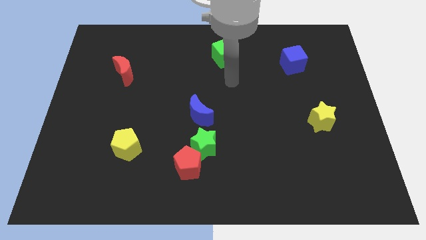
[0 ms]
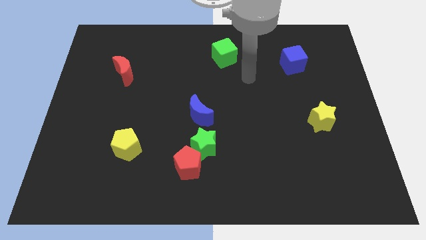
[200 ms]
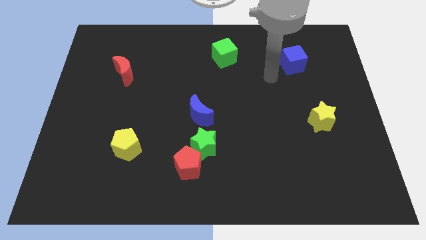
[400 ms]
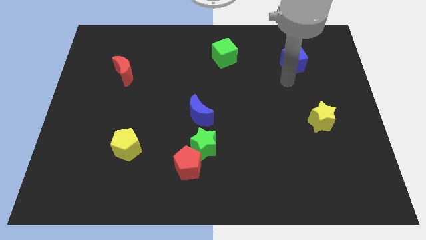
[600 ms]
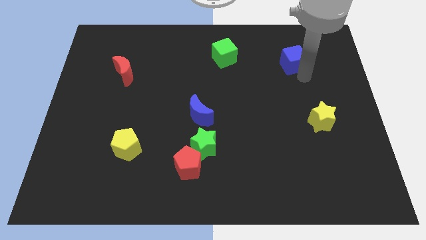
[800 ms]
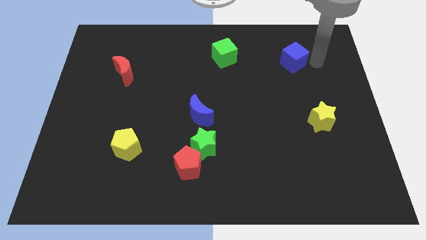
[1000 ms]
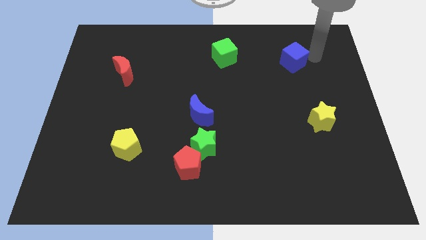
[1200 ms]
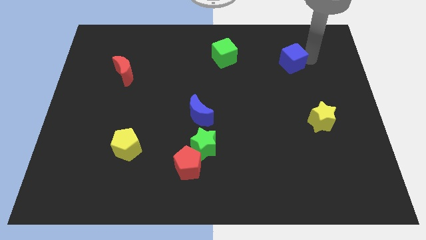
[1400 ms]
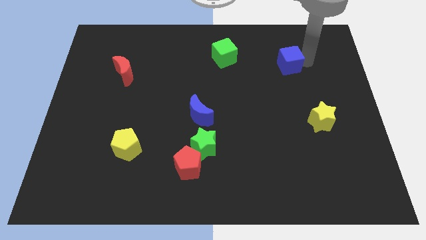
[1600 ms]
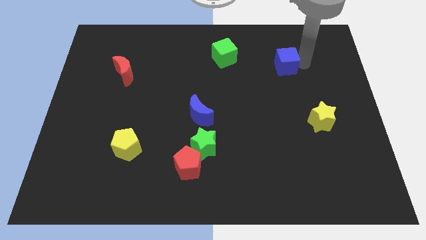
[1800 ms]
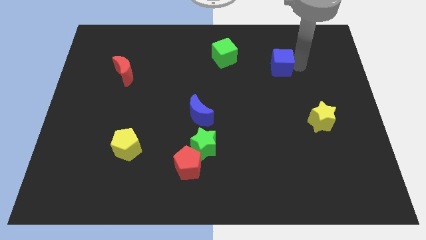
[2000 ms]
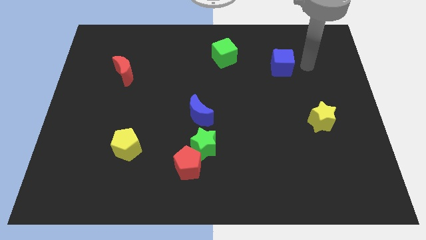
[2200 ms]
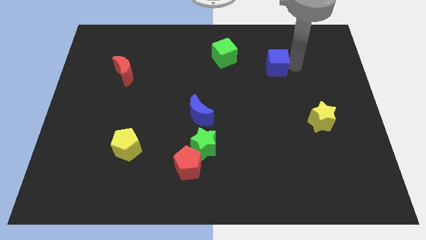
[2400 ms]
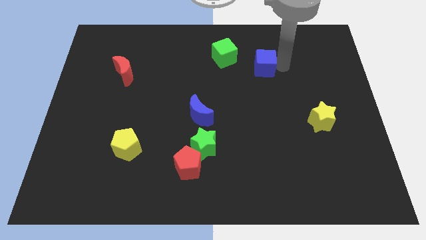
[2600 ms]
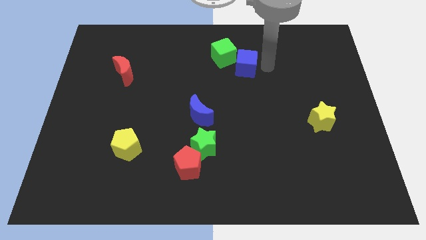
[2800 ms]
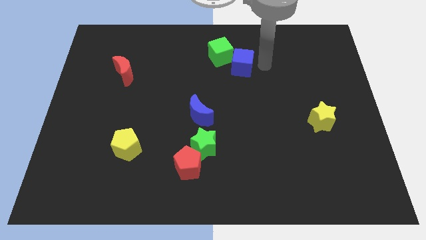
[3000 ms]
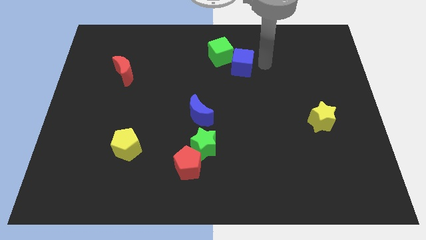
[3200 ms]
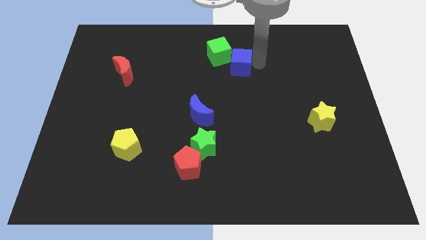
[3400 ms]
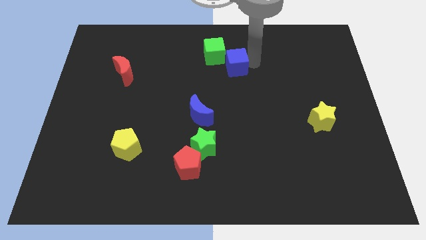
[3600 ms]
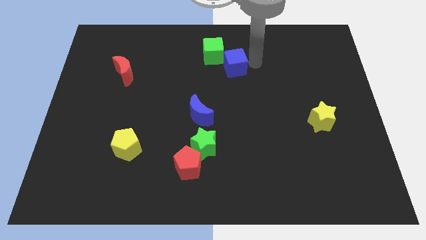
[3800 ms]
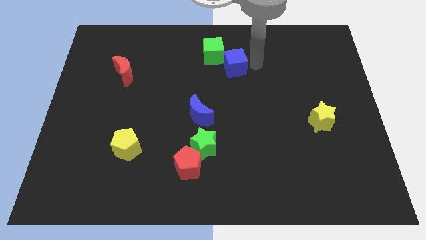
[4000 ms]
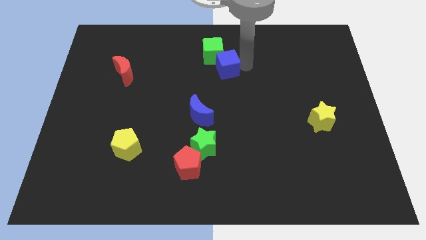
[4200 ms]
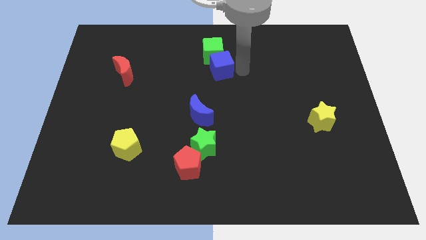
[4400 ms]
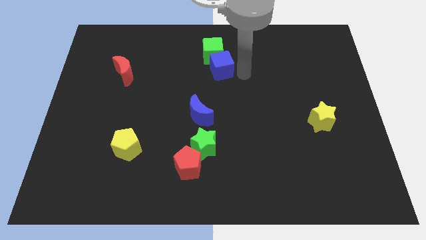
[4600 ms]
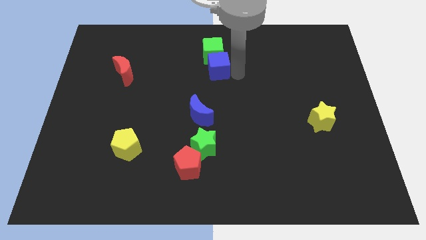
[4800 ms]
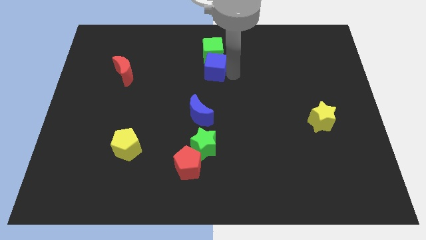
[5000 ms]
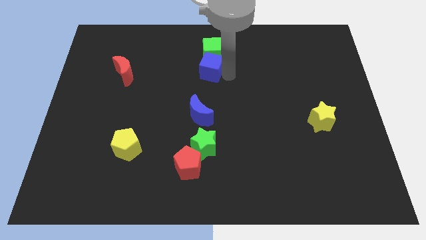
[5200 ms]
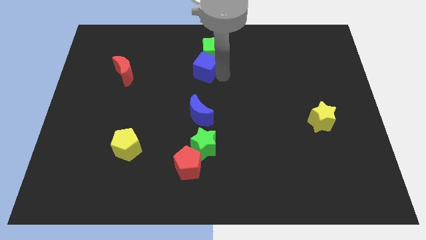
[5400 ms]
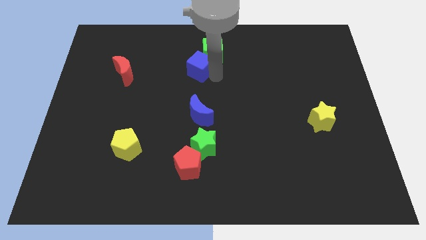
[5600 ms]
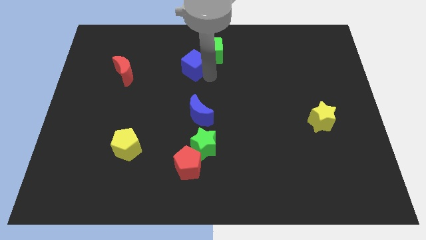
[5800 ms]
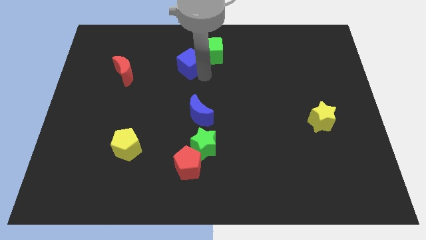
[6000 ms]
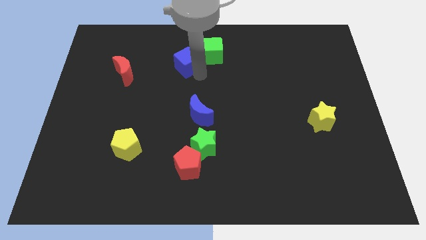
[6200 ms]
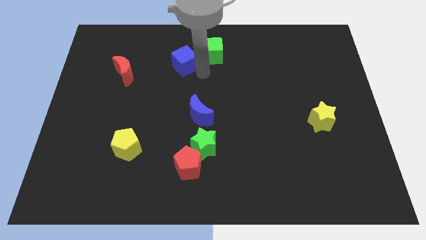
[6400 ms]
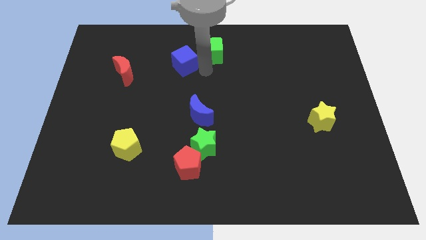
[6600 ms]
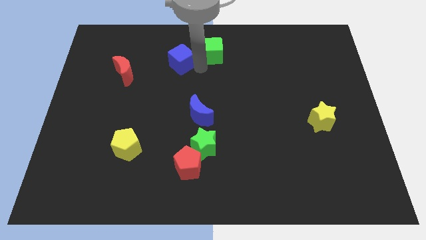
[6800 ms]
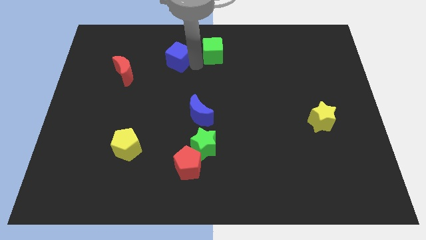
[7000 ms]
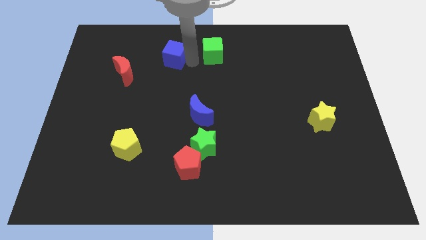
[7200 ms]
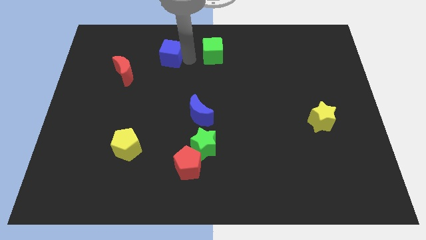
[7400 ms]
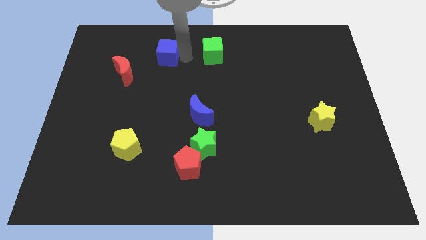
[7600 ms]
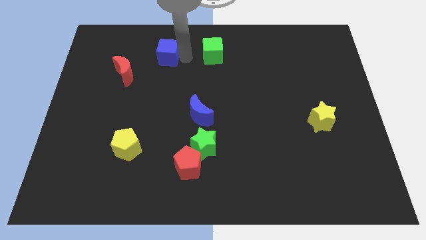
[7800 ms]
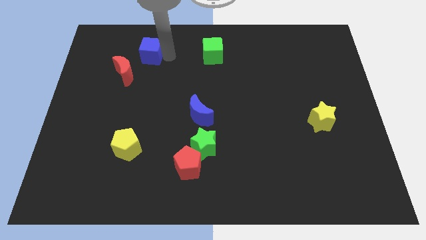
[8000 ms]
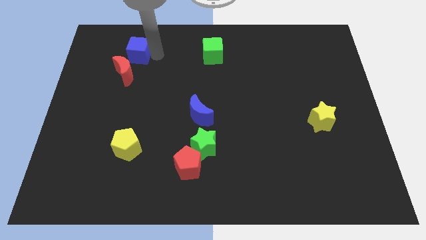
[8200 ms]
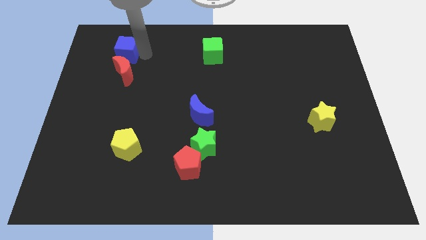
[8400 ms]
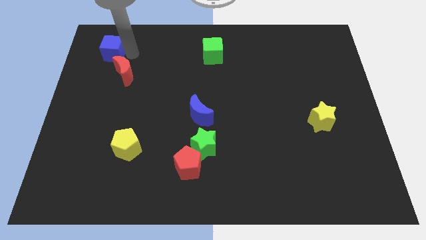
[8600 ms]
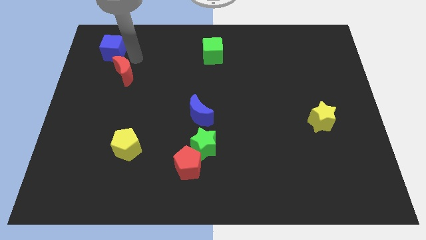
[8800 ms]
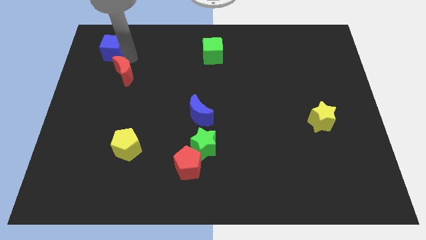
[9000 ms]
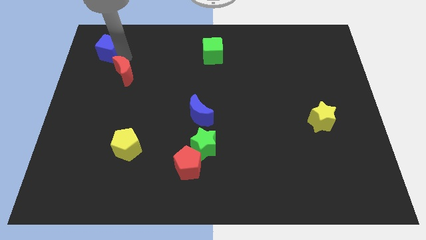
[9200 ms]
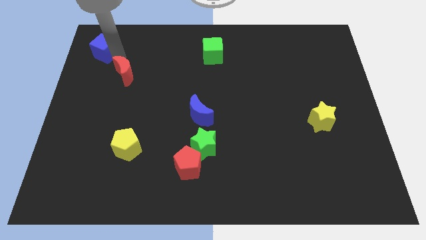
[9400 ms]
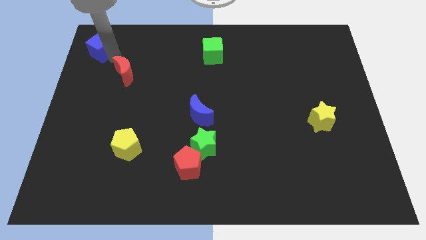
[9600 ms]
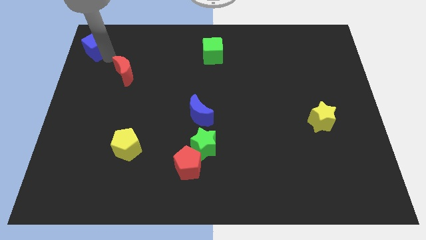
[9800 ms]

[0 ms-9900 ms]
slide the blue cube to the top left

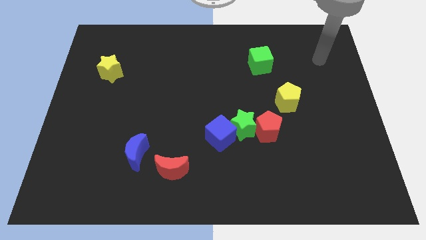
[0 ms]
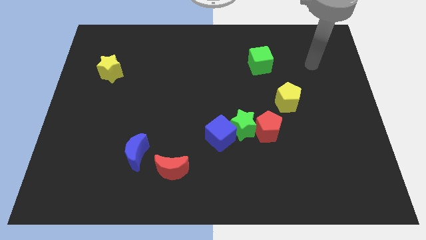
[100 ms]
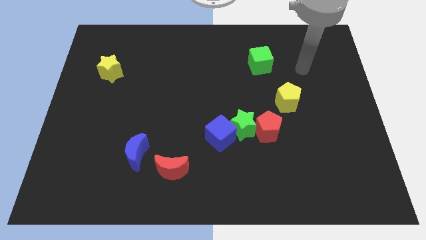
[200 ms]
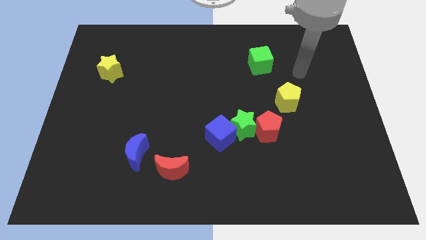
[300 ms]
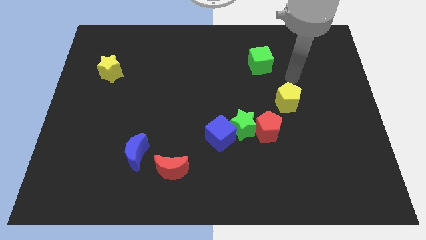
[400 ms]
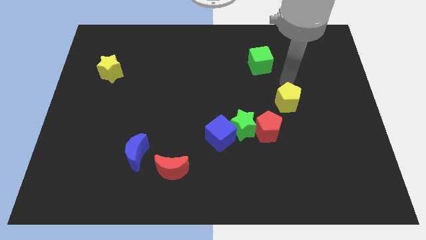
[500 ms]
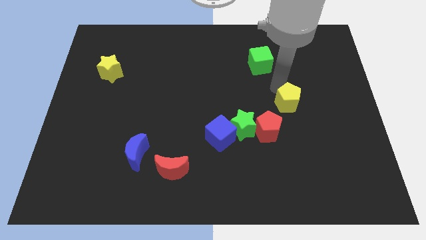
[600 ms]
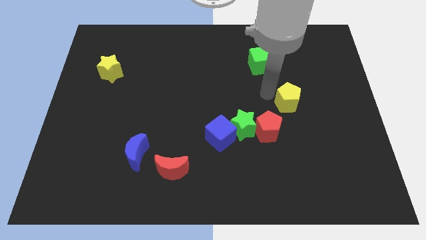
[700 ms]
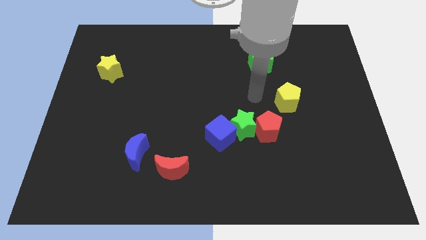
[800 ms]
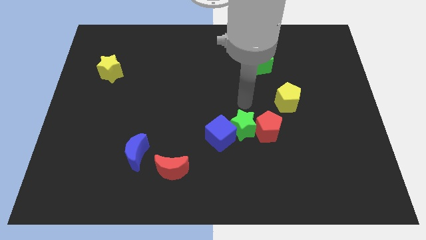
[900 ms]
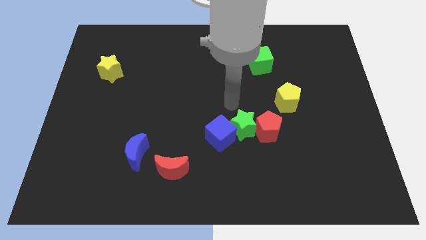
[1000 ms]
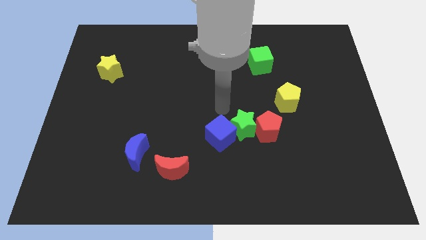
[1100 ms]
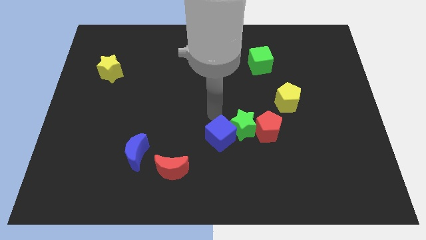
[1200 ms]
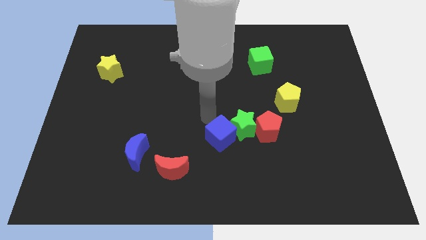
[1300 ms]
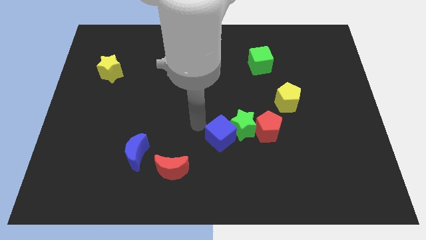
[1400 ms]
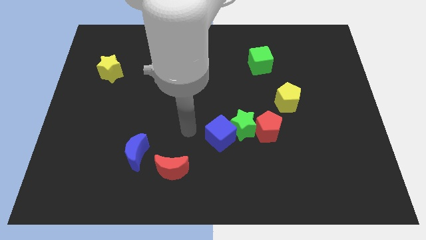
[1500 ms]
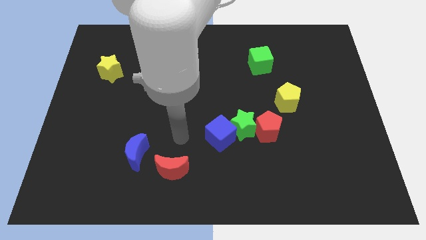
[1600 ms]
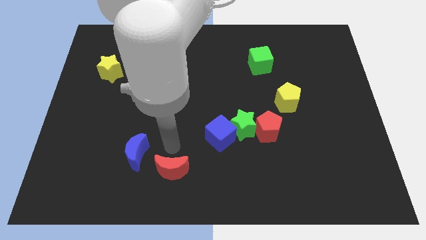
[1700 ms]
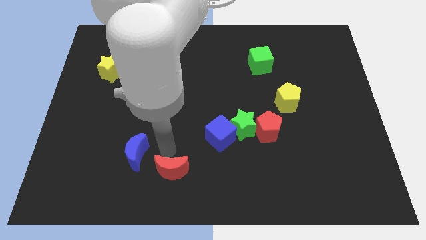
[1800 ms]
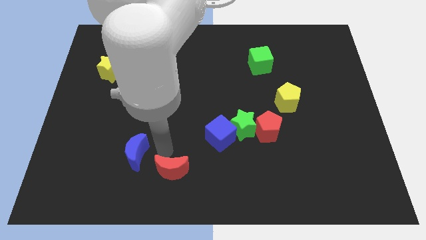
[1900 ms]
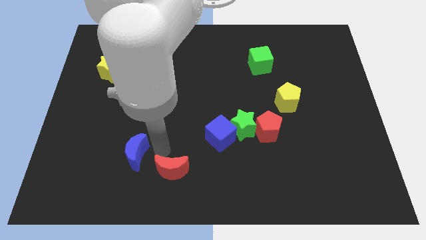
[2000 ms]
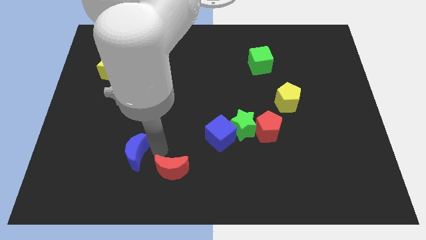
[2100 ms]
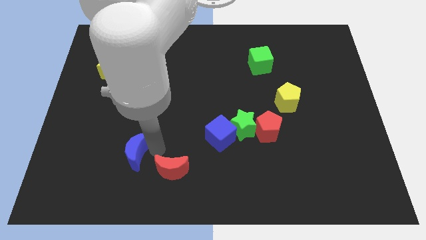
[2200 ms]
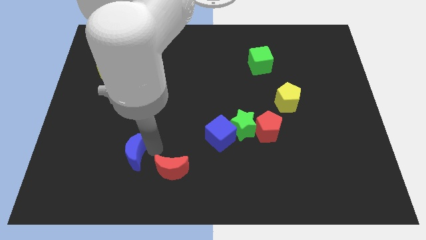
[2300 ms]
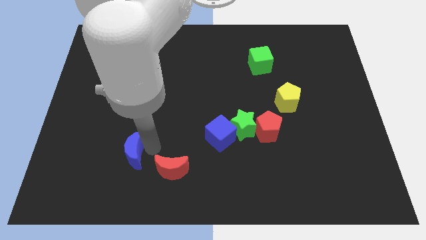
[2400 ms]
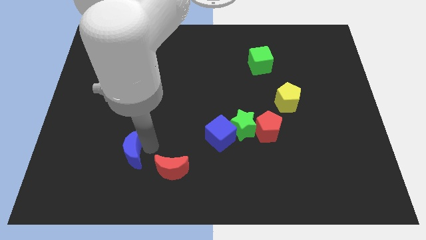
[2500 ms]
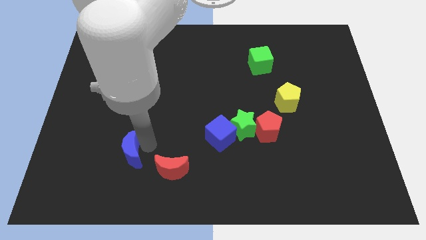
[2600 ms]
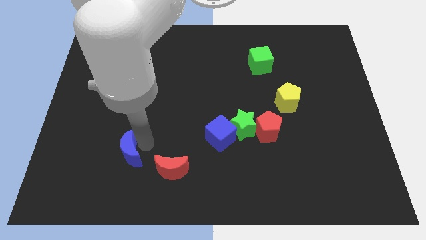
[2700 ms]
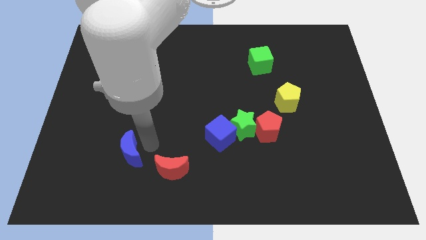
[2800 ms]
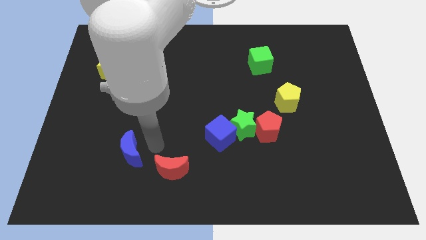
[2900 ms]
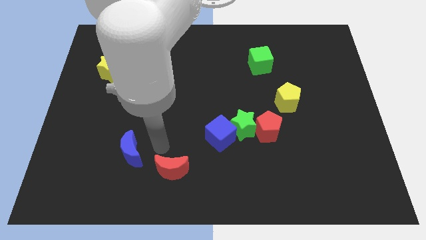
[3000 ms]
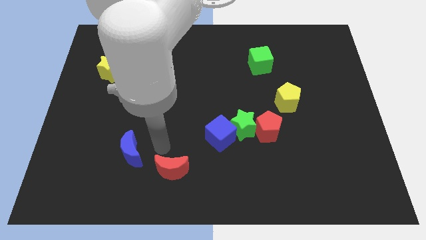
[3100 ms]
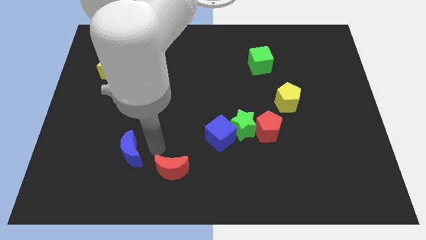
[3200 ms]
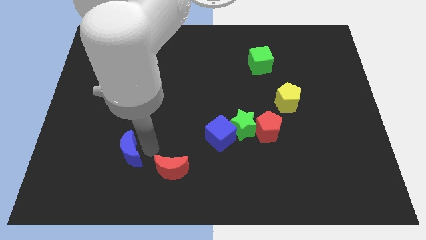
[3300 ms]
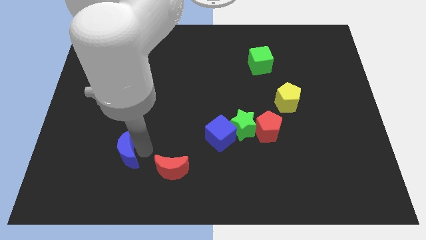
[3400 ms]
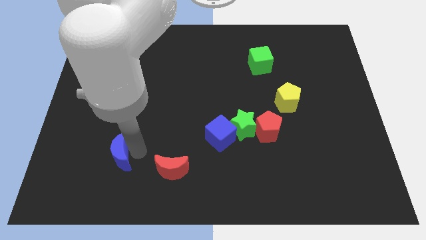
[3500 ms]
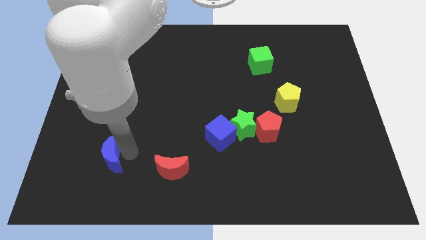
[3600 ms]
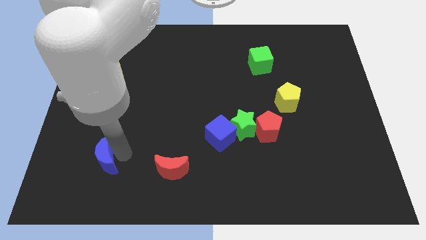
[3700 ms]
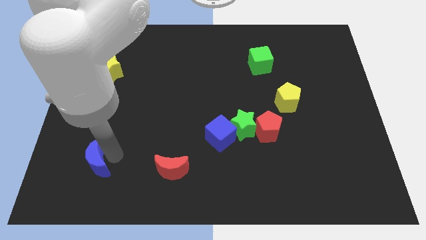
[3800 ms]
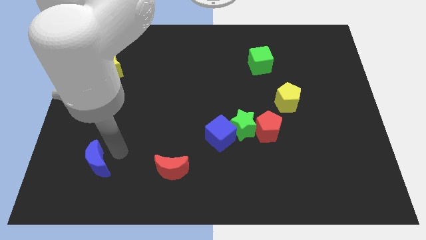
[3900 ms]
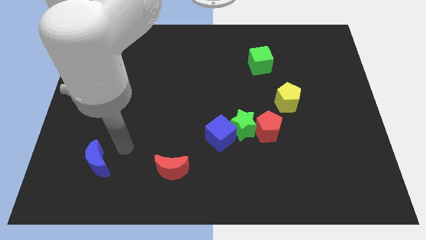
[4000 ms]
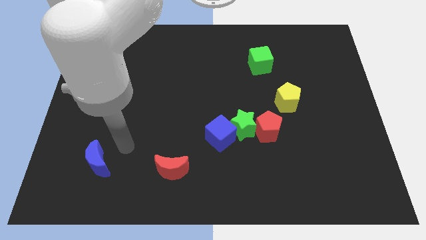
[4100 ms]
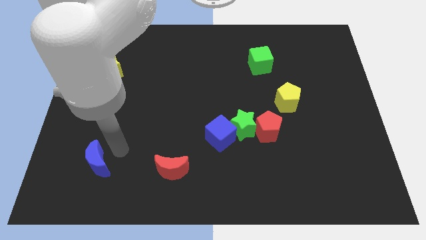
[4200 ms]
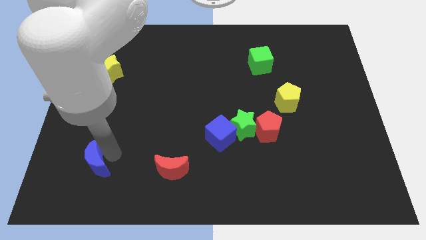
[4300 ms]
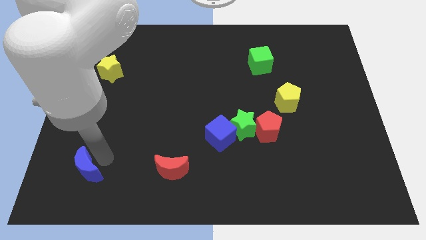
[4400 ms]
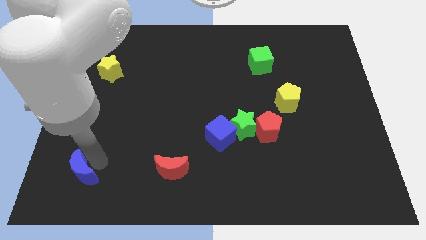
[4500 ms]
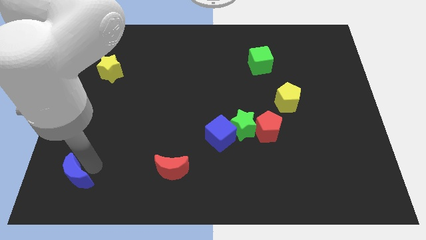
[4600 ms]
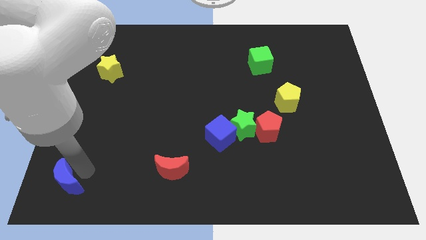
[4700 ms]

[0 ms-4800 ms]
put the blue moon to the bottom left corner
